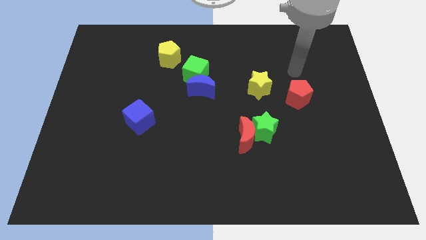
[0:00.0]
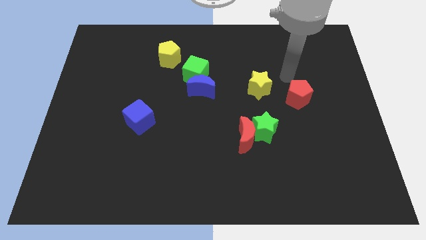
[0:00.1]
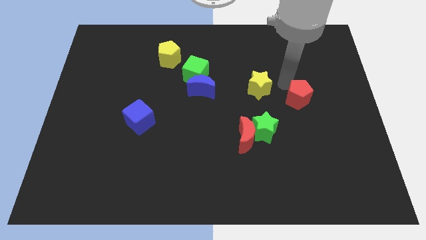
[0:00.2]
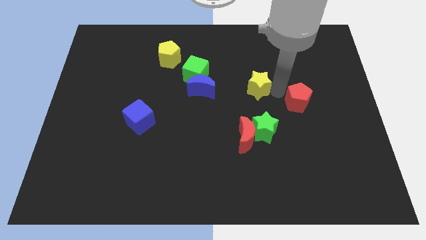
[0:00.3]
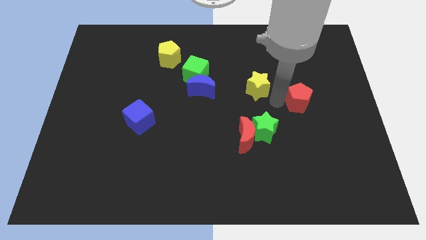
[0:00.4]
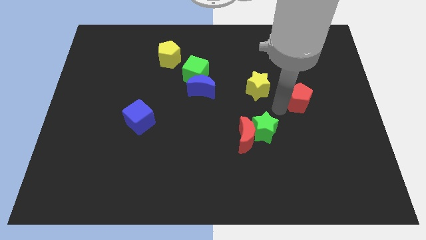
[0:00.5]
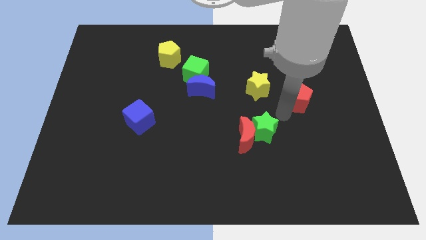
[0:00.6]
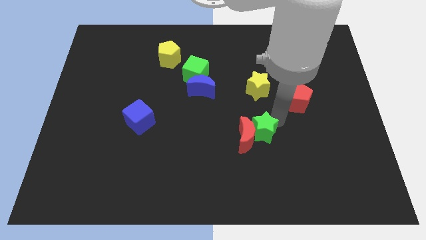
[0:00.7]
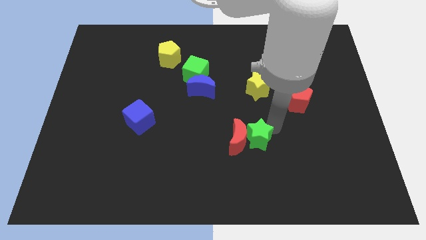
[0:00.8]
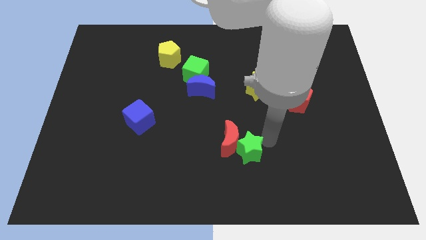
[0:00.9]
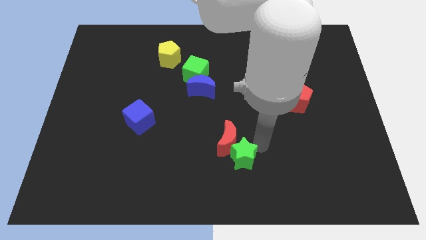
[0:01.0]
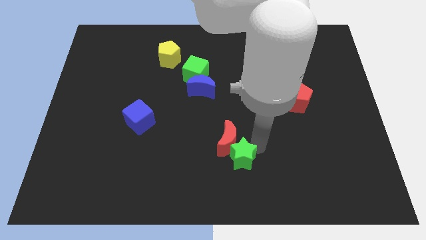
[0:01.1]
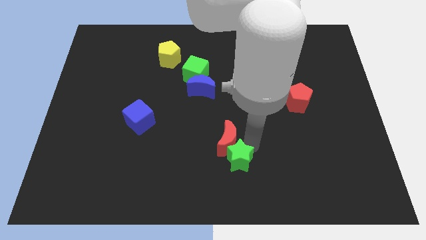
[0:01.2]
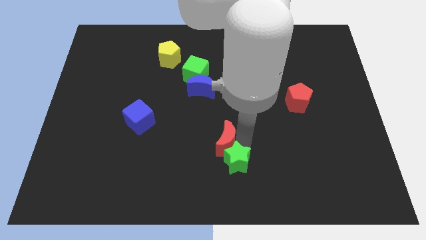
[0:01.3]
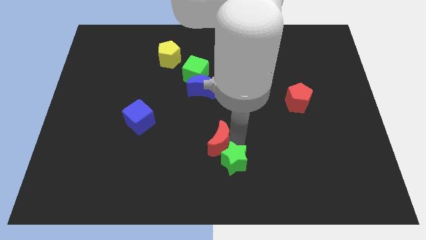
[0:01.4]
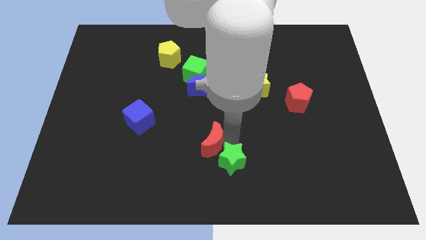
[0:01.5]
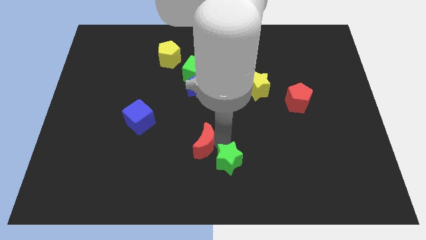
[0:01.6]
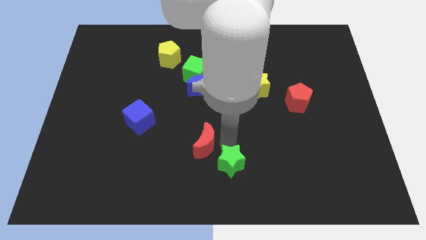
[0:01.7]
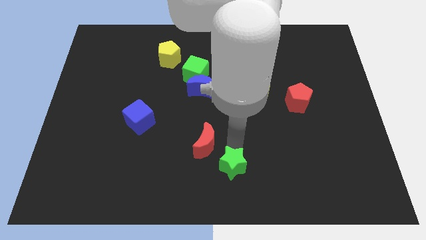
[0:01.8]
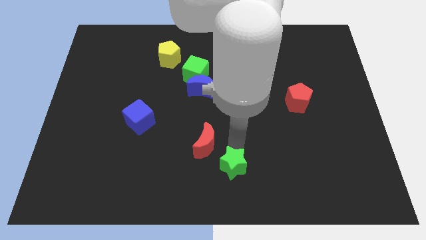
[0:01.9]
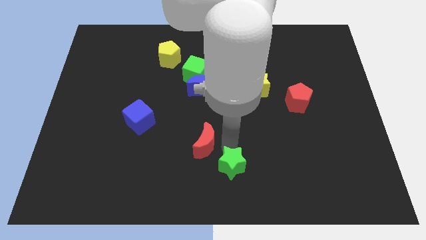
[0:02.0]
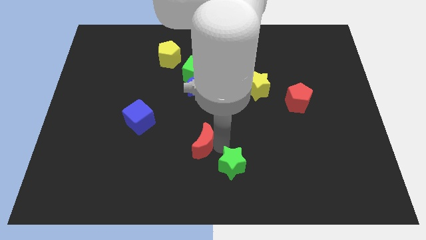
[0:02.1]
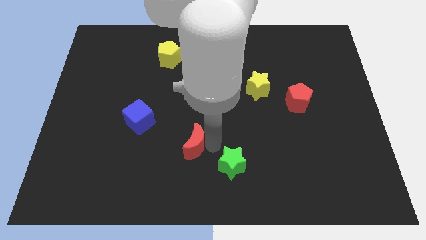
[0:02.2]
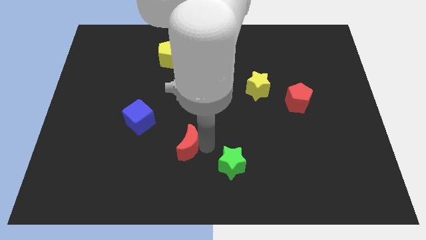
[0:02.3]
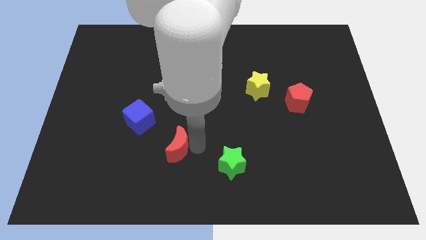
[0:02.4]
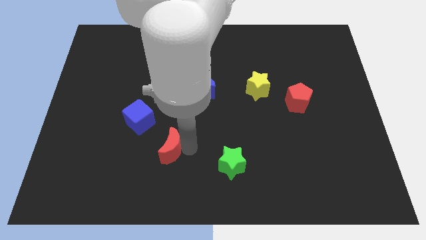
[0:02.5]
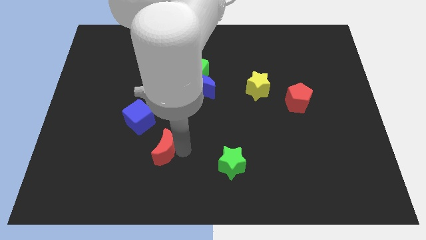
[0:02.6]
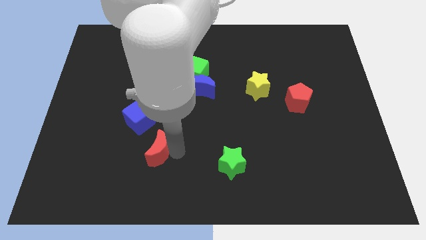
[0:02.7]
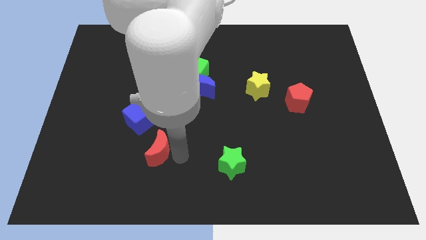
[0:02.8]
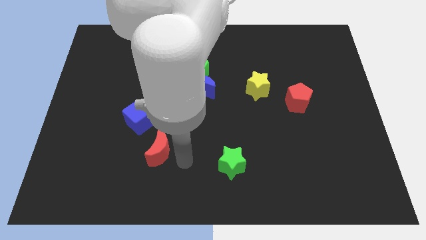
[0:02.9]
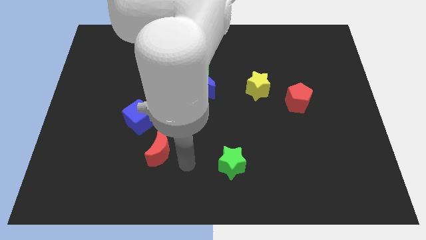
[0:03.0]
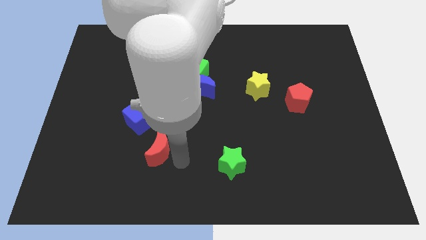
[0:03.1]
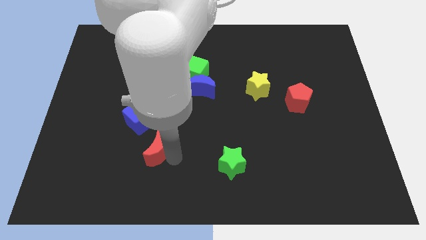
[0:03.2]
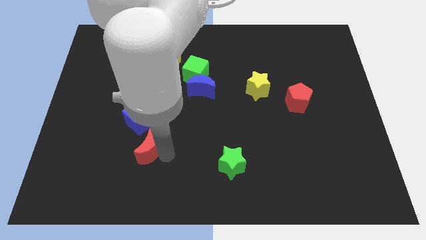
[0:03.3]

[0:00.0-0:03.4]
move the red moon to the left

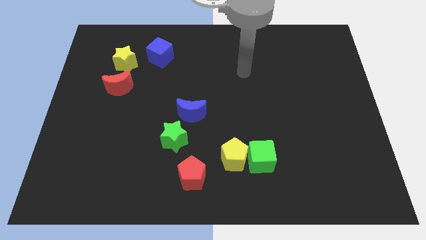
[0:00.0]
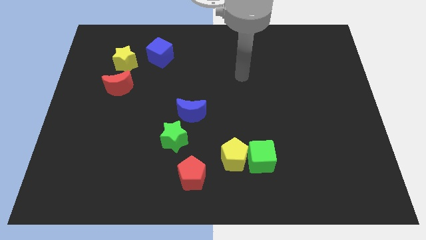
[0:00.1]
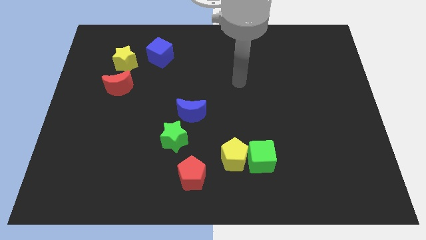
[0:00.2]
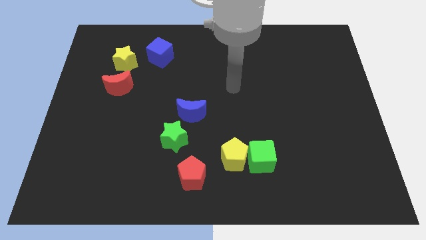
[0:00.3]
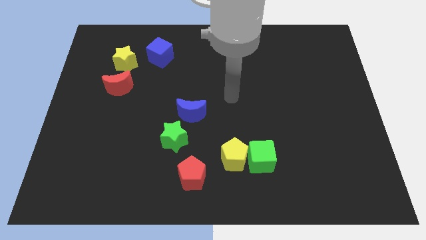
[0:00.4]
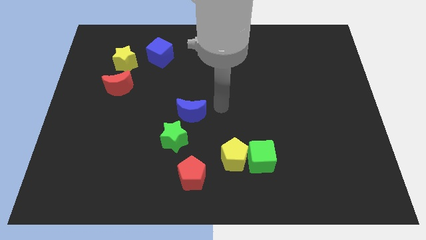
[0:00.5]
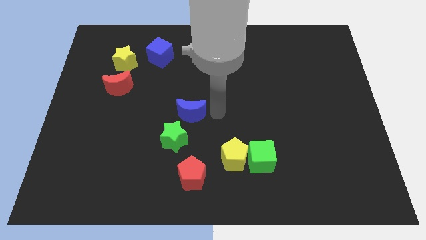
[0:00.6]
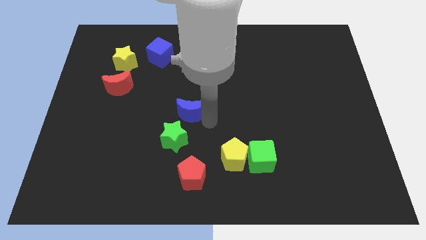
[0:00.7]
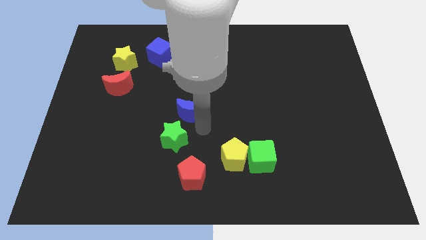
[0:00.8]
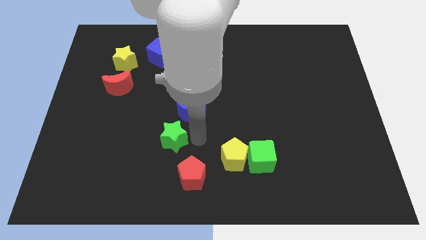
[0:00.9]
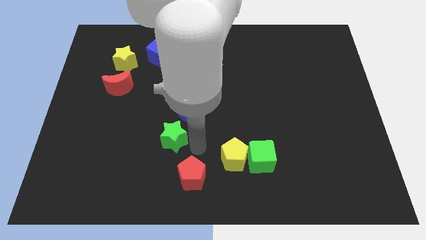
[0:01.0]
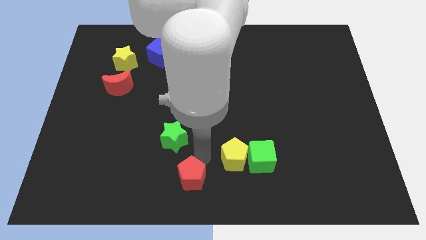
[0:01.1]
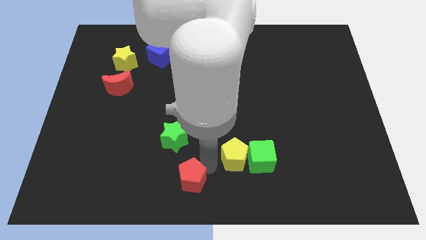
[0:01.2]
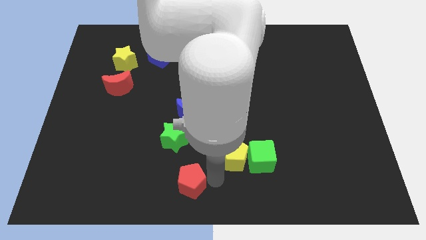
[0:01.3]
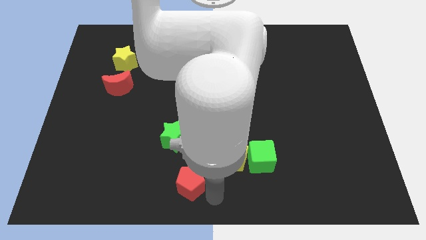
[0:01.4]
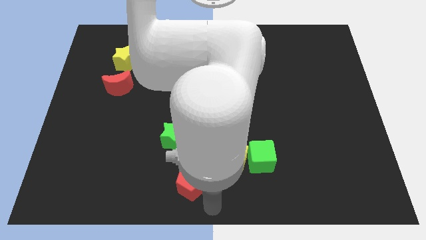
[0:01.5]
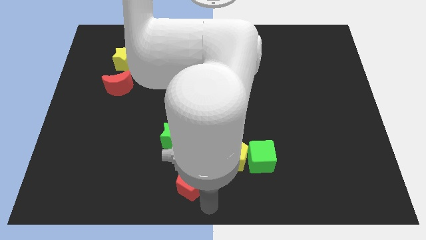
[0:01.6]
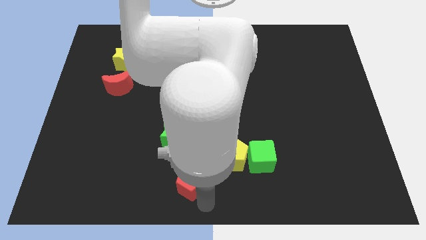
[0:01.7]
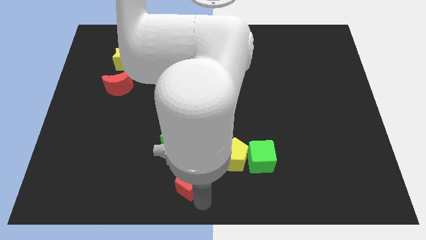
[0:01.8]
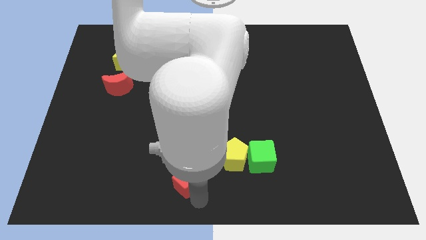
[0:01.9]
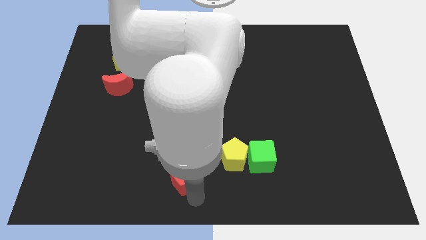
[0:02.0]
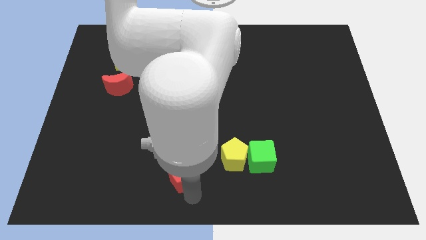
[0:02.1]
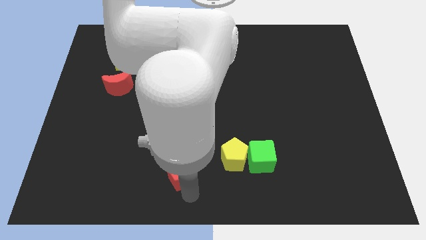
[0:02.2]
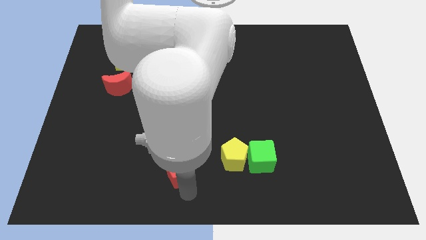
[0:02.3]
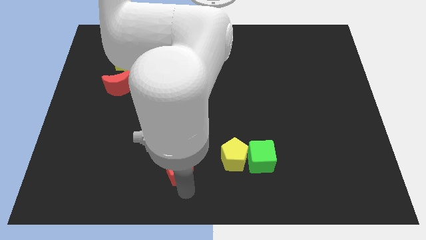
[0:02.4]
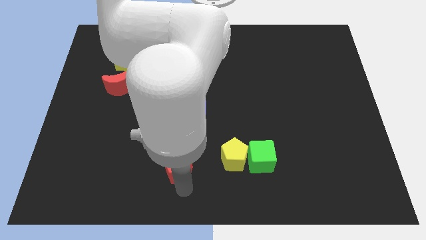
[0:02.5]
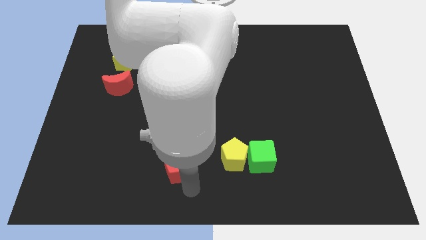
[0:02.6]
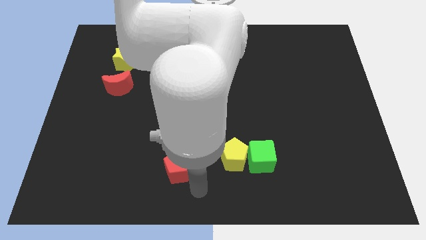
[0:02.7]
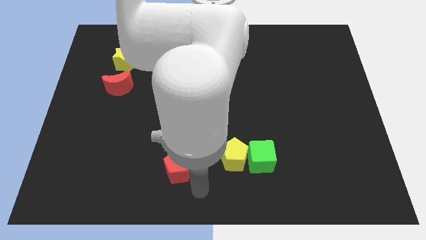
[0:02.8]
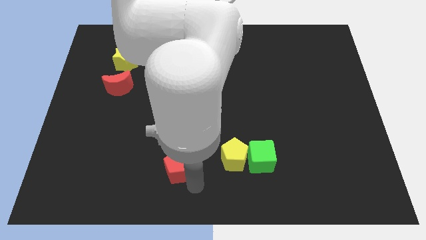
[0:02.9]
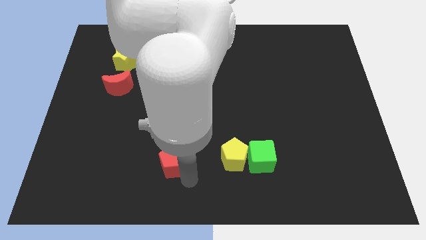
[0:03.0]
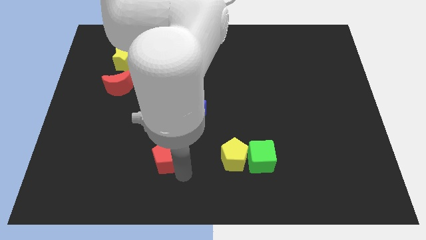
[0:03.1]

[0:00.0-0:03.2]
slightly slide the red pentagon up and to the left

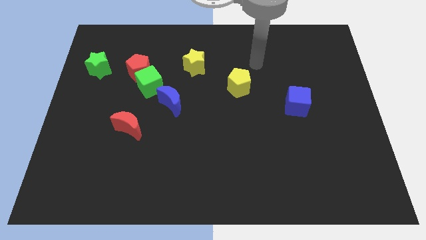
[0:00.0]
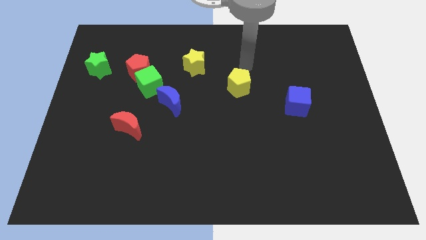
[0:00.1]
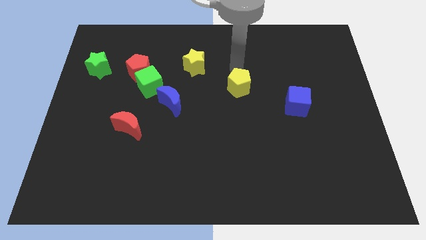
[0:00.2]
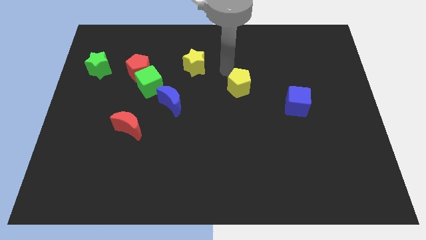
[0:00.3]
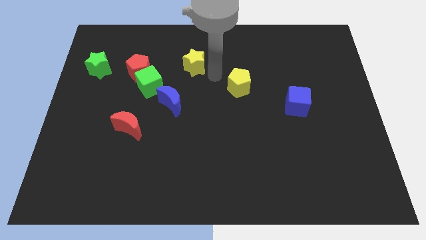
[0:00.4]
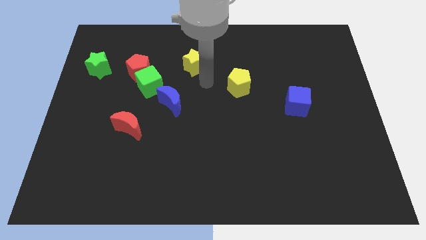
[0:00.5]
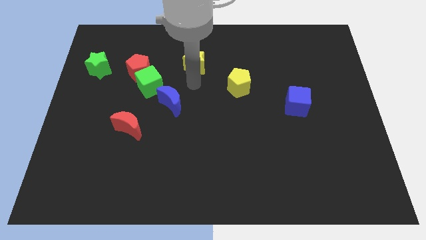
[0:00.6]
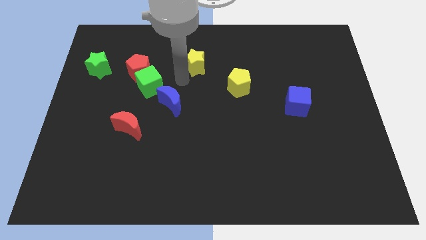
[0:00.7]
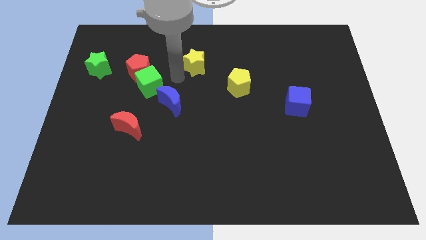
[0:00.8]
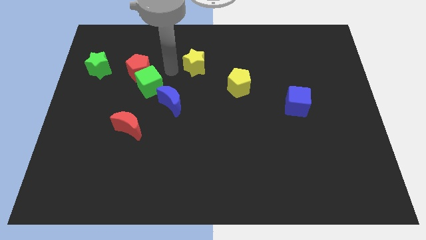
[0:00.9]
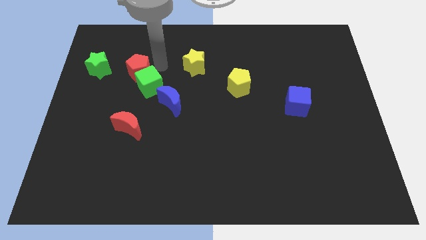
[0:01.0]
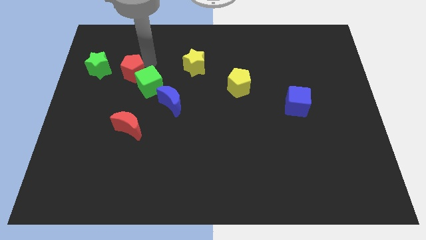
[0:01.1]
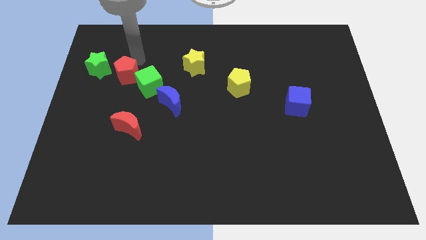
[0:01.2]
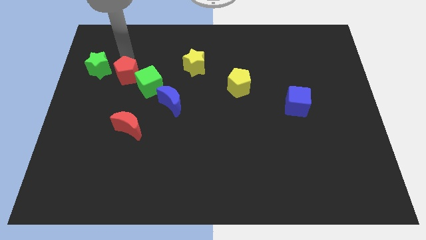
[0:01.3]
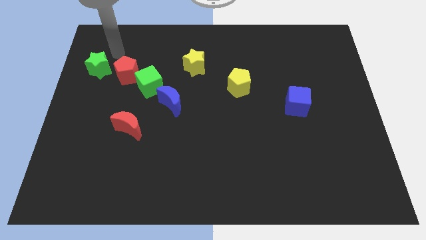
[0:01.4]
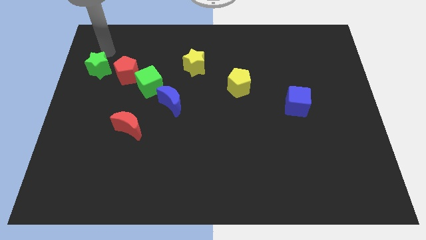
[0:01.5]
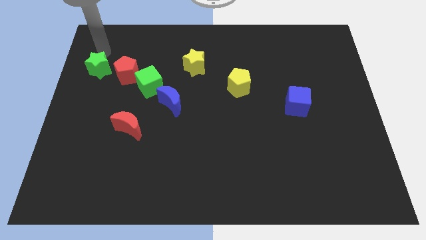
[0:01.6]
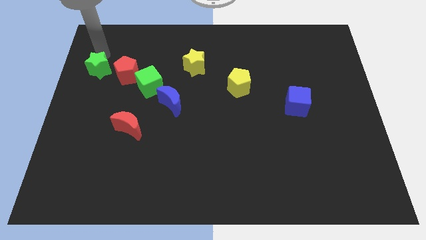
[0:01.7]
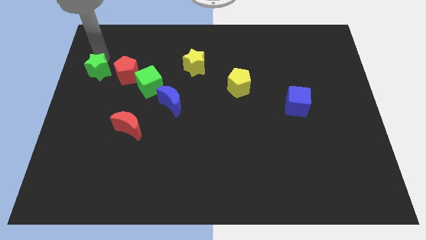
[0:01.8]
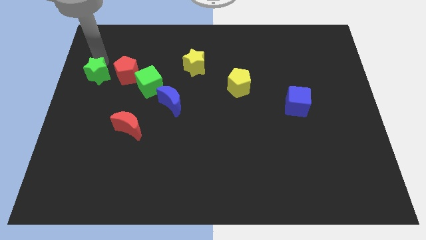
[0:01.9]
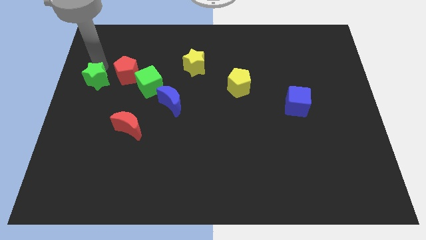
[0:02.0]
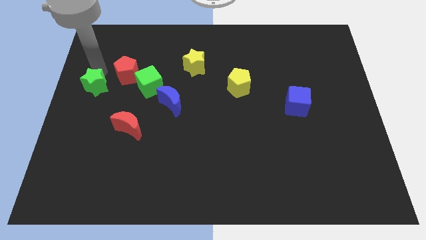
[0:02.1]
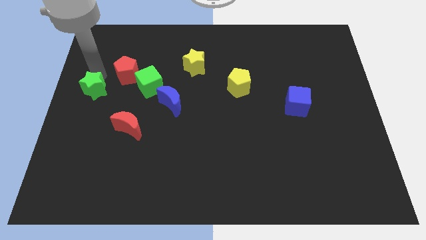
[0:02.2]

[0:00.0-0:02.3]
move the green star somewhat downwards
